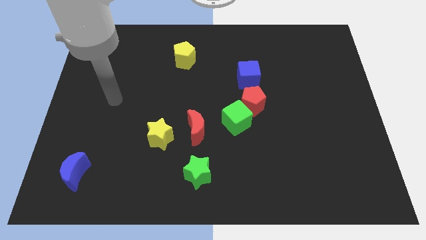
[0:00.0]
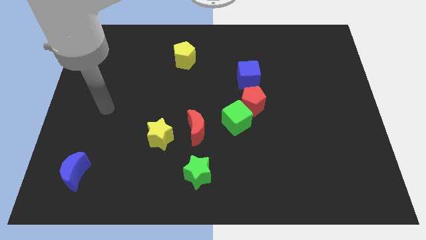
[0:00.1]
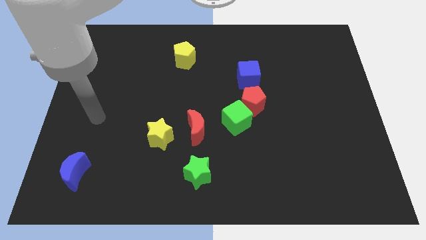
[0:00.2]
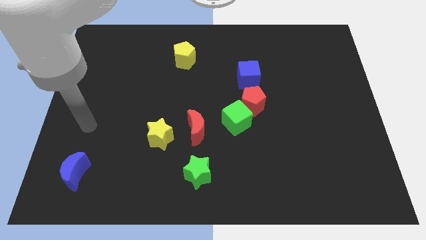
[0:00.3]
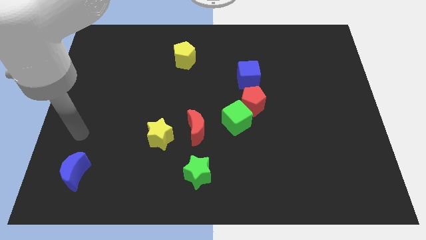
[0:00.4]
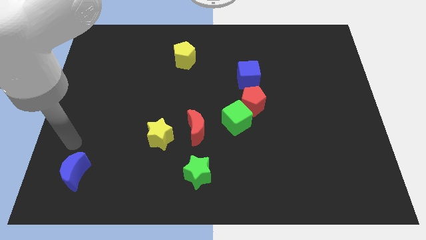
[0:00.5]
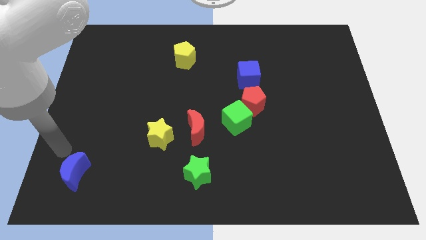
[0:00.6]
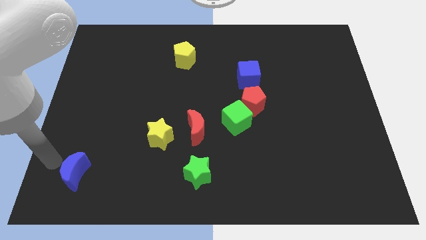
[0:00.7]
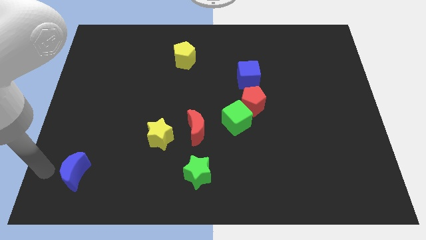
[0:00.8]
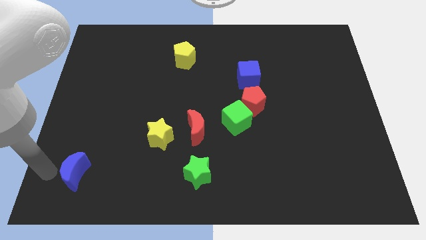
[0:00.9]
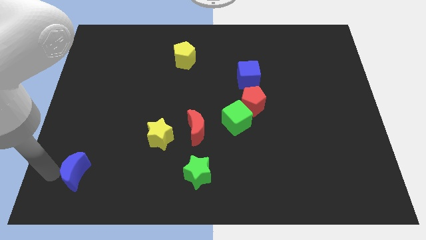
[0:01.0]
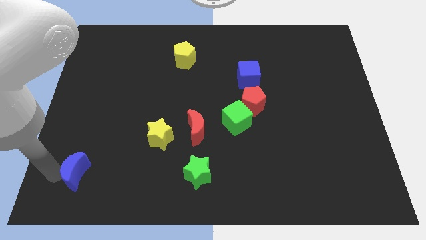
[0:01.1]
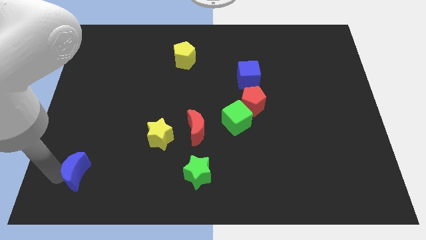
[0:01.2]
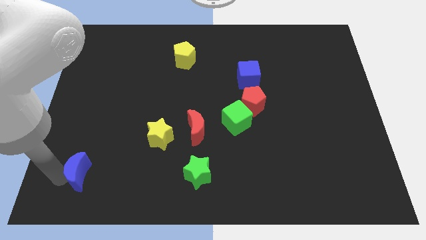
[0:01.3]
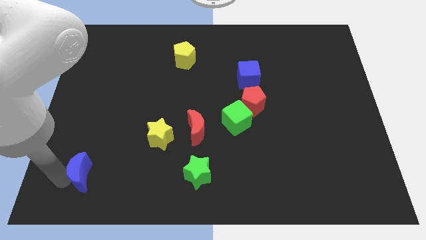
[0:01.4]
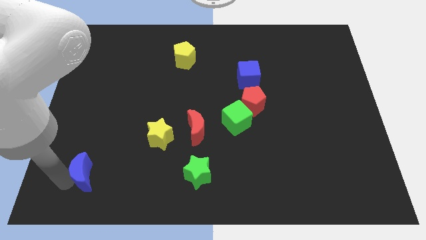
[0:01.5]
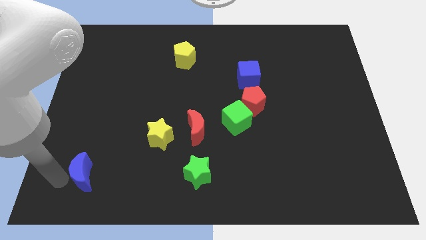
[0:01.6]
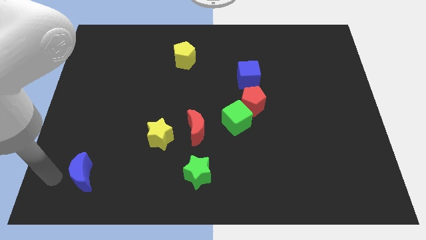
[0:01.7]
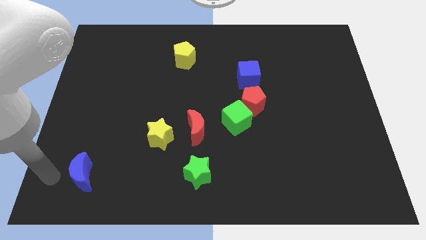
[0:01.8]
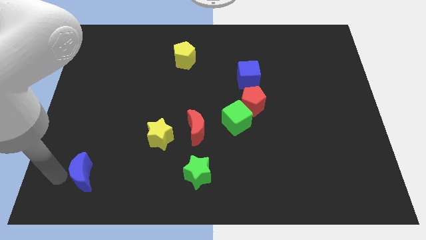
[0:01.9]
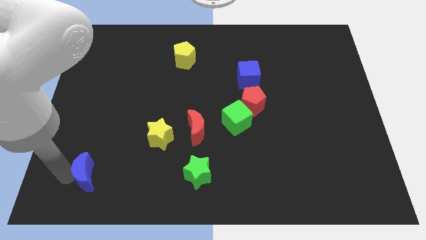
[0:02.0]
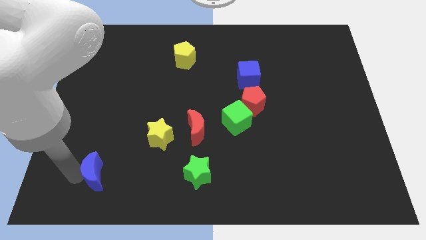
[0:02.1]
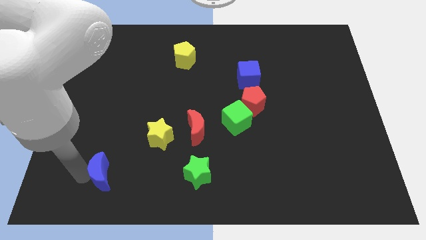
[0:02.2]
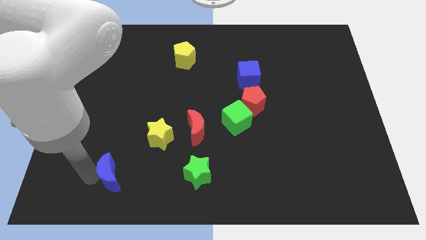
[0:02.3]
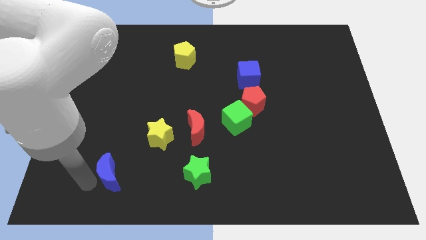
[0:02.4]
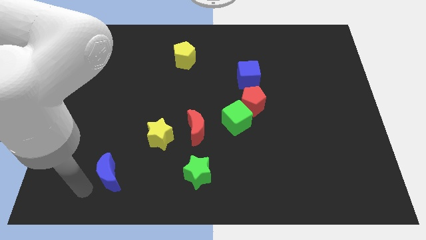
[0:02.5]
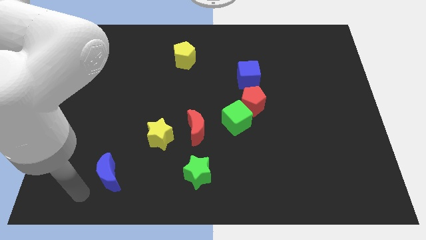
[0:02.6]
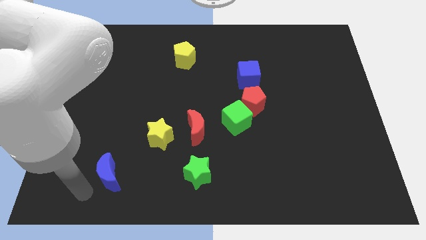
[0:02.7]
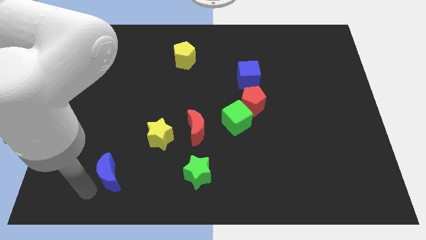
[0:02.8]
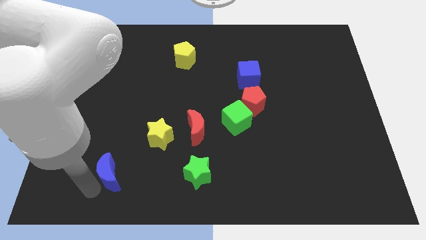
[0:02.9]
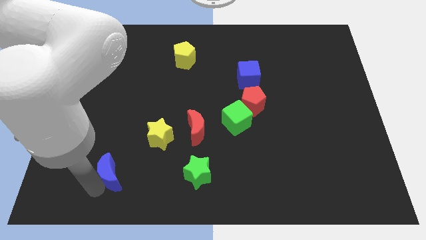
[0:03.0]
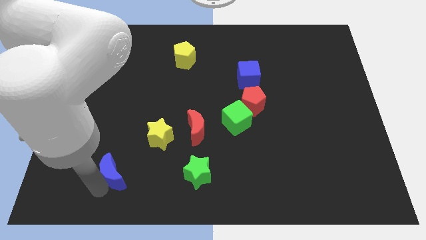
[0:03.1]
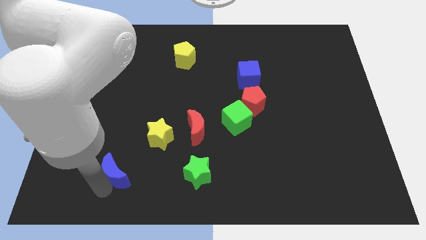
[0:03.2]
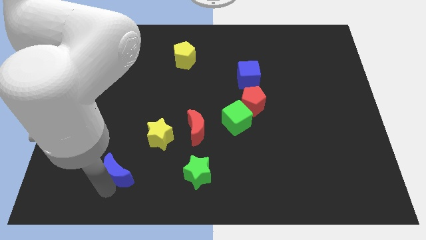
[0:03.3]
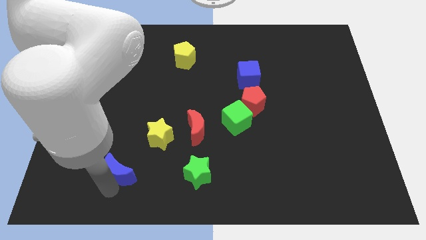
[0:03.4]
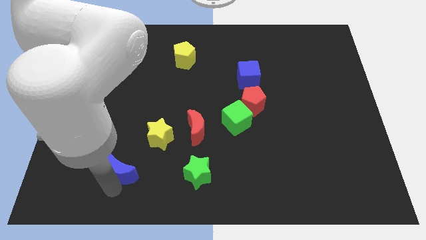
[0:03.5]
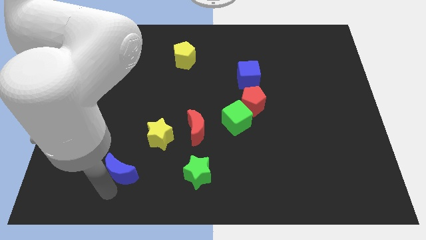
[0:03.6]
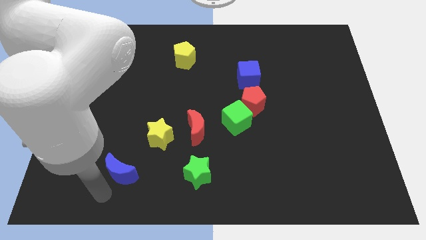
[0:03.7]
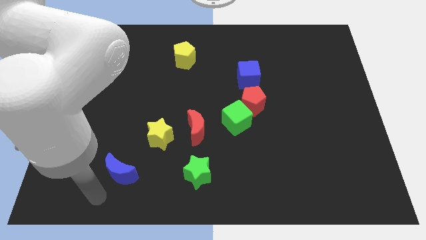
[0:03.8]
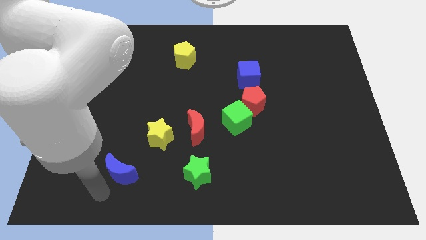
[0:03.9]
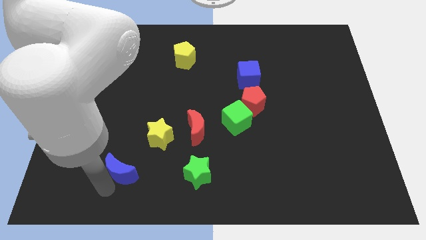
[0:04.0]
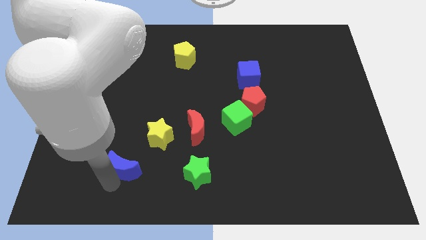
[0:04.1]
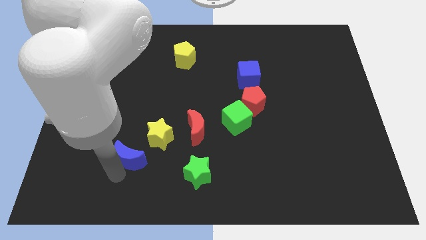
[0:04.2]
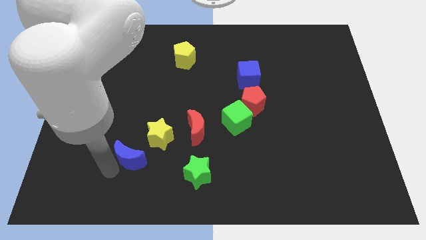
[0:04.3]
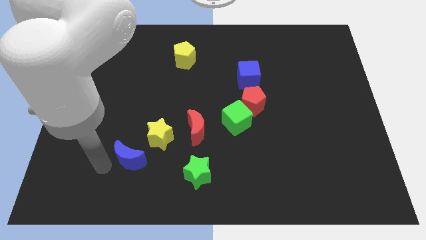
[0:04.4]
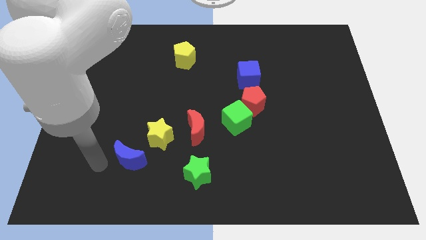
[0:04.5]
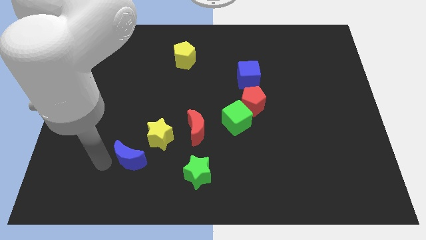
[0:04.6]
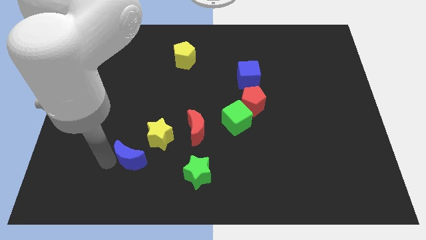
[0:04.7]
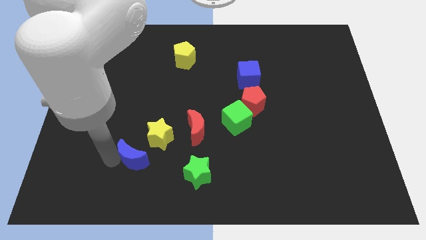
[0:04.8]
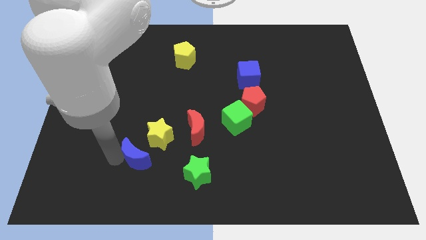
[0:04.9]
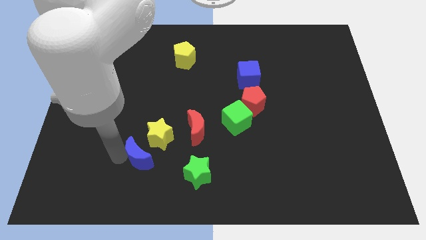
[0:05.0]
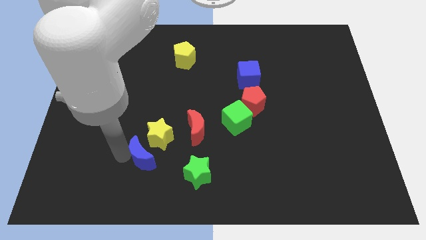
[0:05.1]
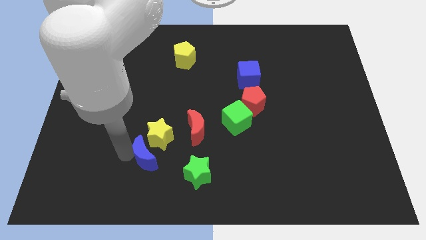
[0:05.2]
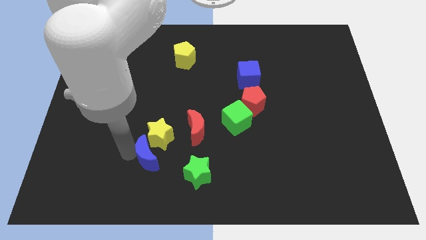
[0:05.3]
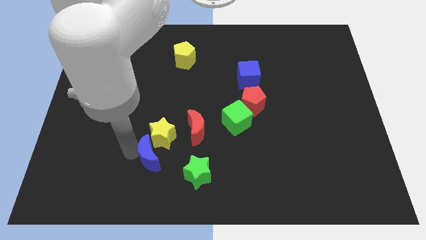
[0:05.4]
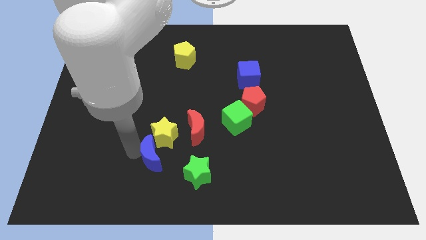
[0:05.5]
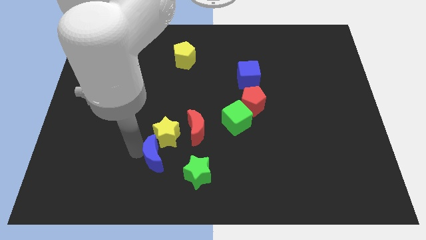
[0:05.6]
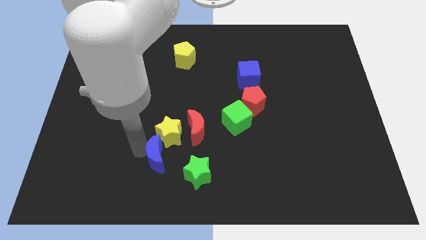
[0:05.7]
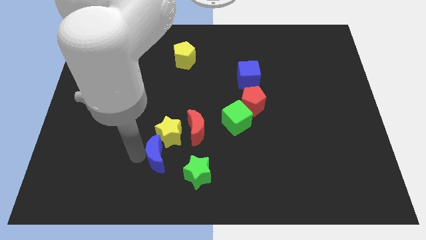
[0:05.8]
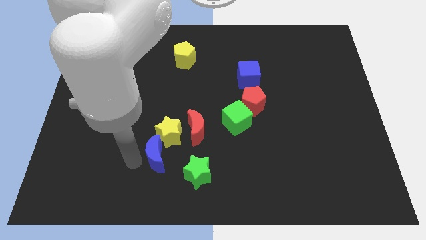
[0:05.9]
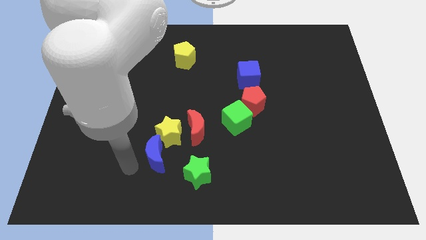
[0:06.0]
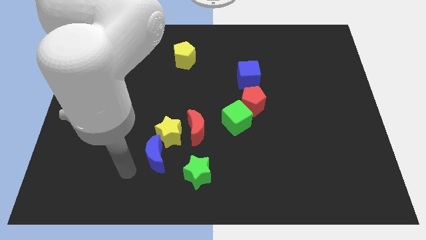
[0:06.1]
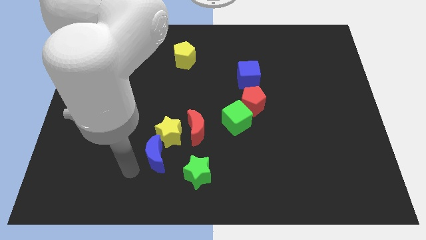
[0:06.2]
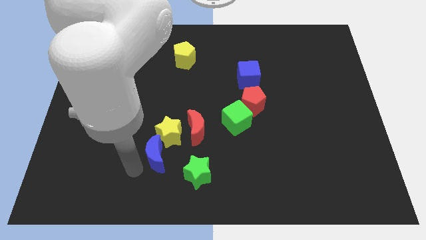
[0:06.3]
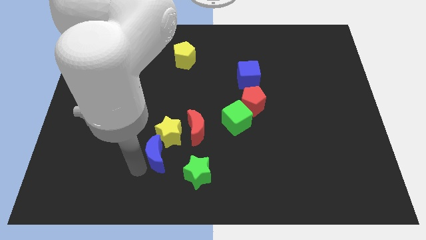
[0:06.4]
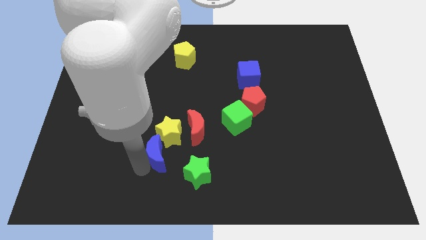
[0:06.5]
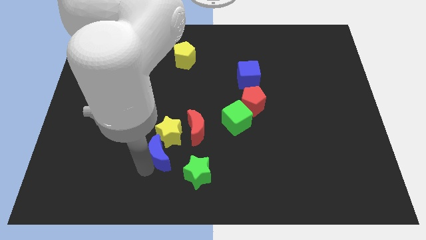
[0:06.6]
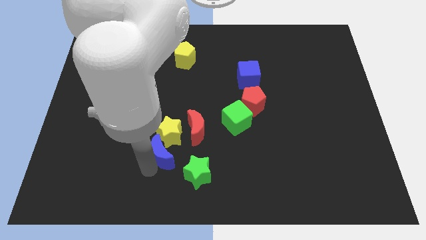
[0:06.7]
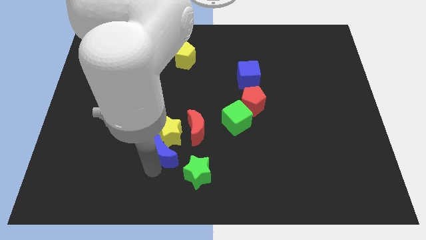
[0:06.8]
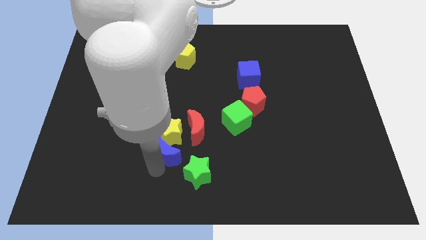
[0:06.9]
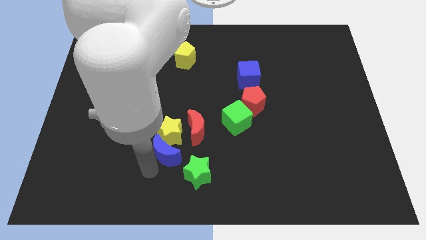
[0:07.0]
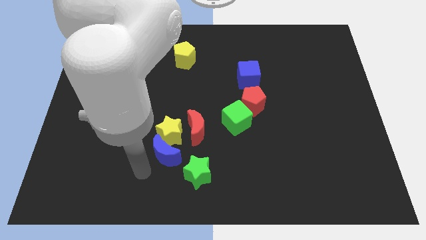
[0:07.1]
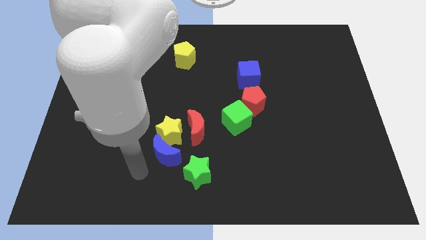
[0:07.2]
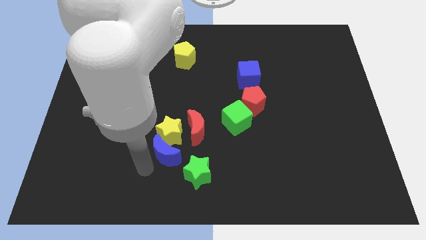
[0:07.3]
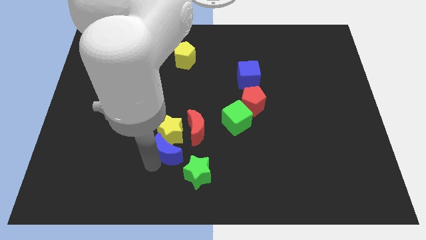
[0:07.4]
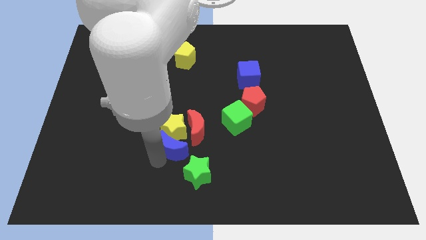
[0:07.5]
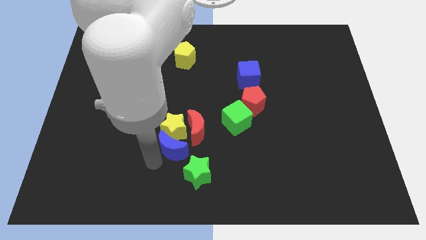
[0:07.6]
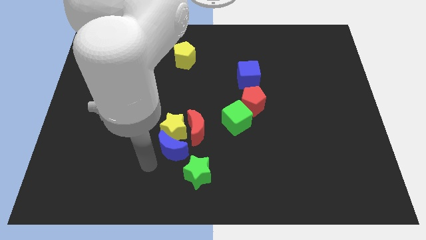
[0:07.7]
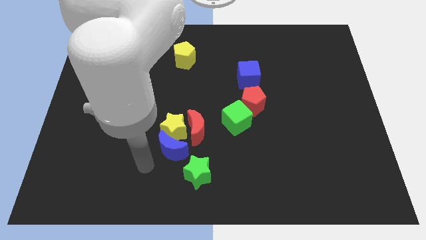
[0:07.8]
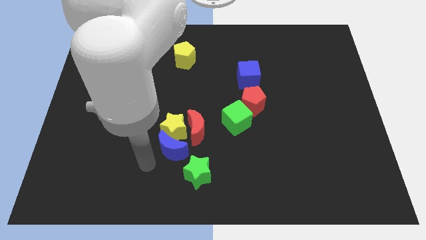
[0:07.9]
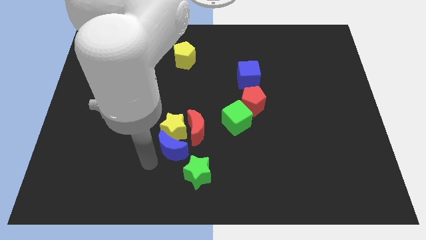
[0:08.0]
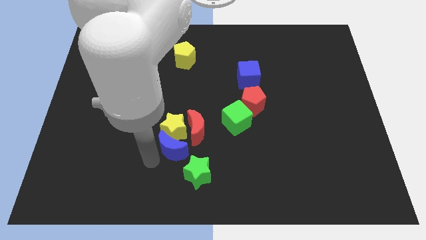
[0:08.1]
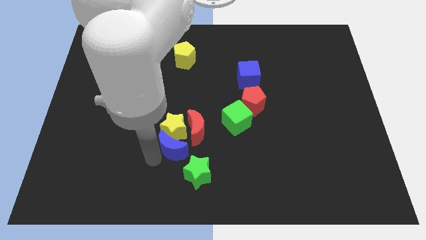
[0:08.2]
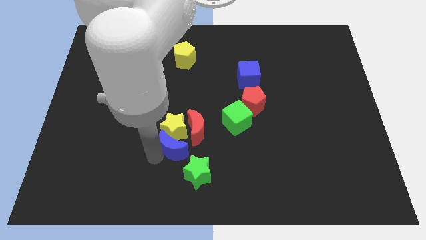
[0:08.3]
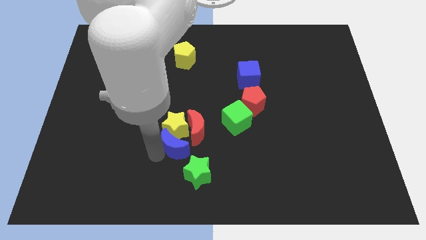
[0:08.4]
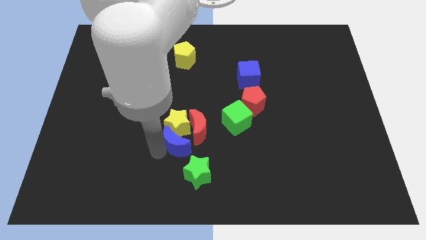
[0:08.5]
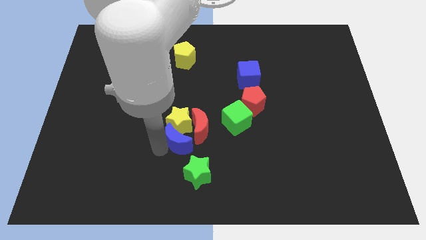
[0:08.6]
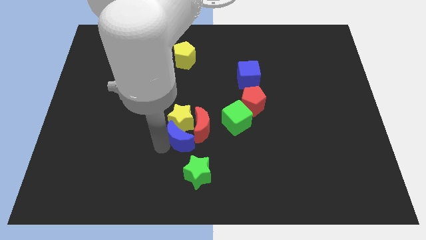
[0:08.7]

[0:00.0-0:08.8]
push the blue moon towards the red moon
